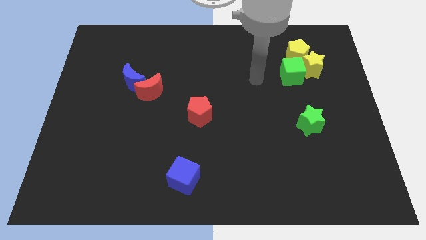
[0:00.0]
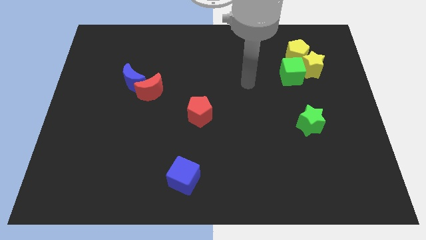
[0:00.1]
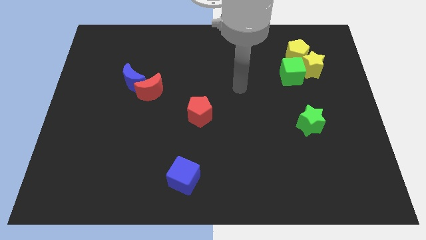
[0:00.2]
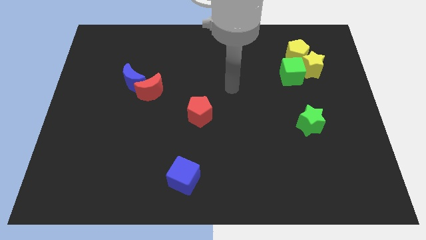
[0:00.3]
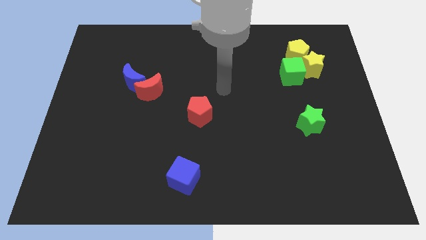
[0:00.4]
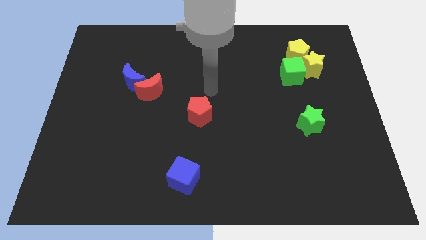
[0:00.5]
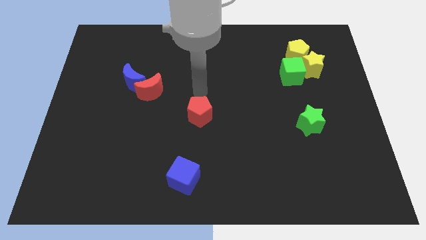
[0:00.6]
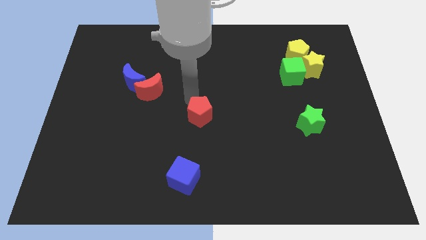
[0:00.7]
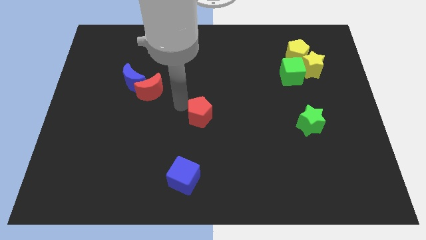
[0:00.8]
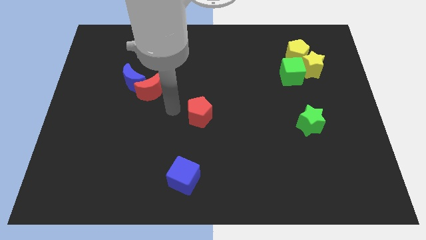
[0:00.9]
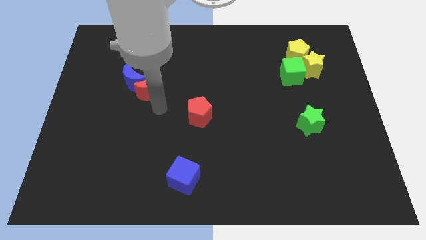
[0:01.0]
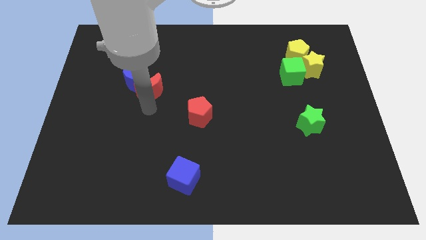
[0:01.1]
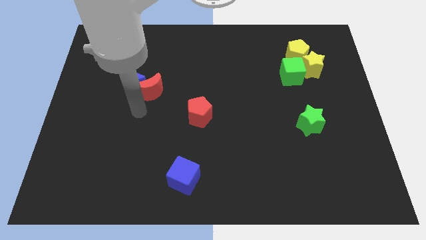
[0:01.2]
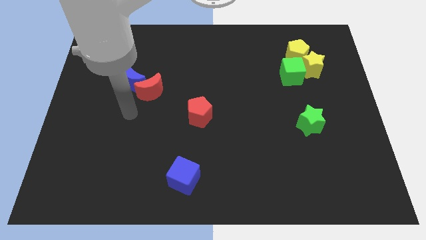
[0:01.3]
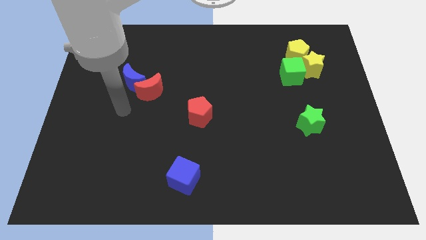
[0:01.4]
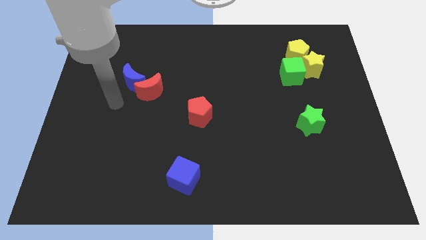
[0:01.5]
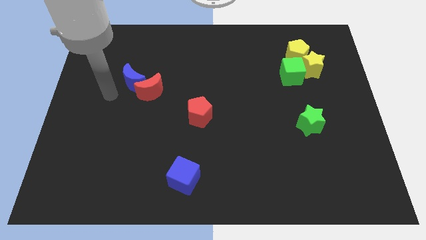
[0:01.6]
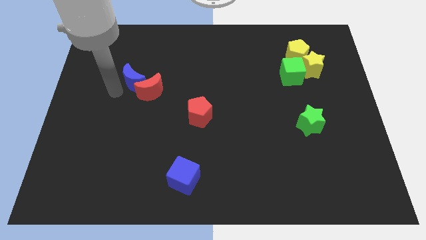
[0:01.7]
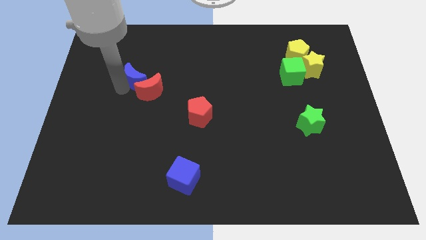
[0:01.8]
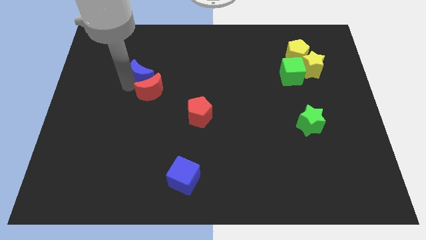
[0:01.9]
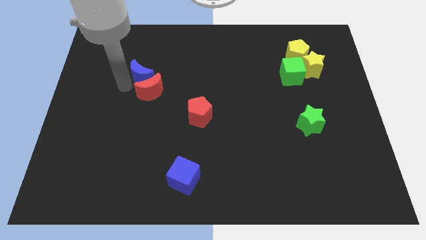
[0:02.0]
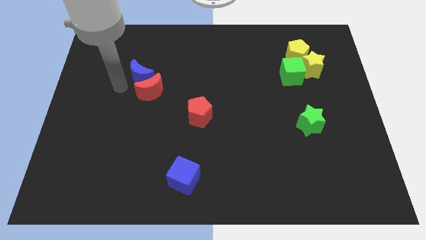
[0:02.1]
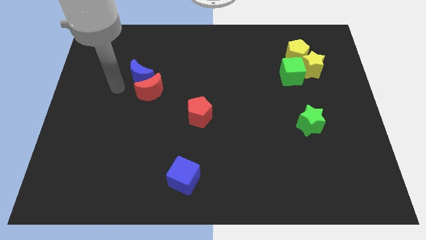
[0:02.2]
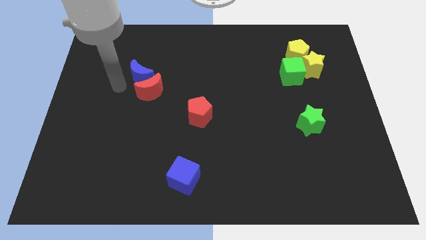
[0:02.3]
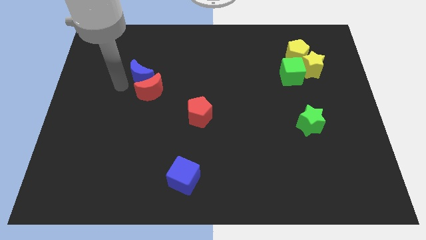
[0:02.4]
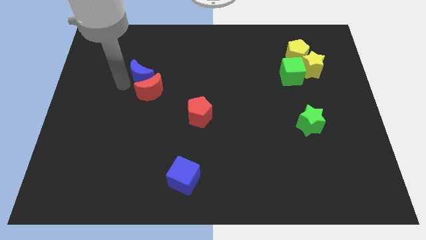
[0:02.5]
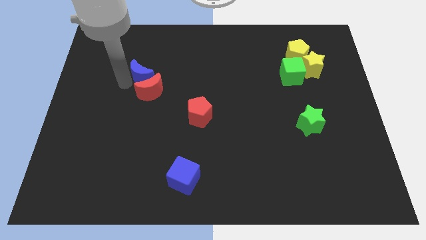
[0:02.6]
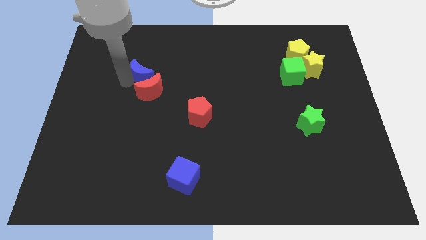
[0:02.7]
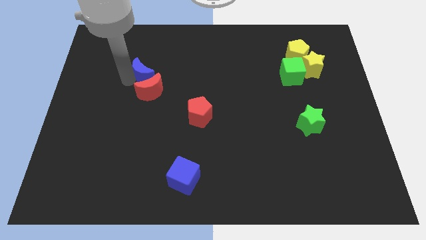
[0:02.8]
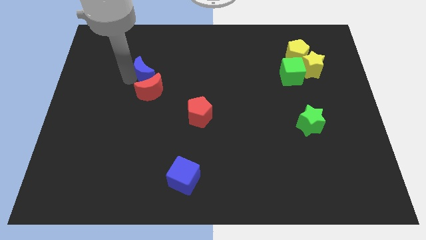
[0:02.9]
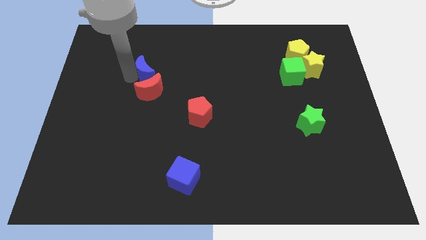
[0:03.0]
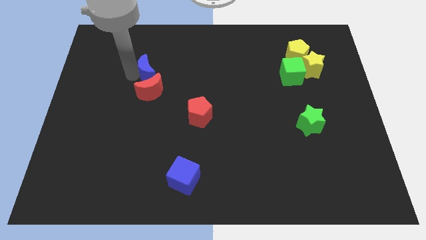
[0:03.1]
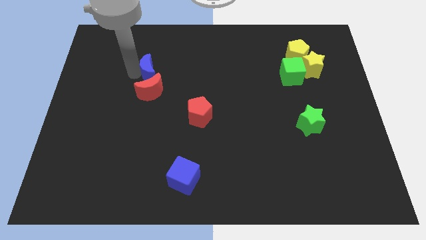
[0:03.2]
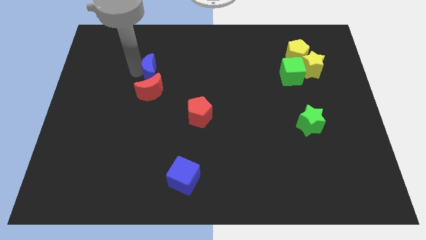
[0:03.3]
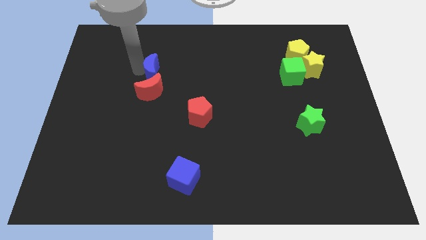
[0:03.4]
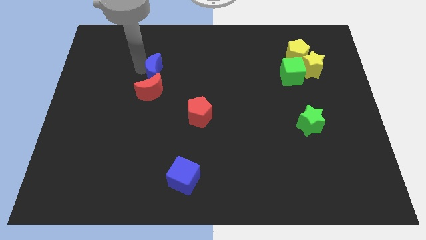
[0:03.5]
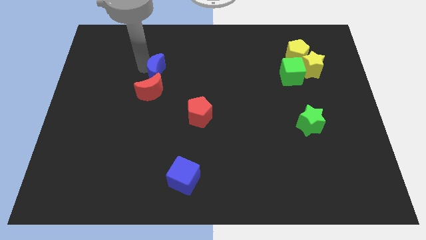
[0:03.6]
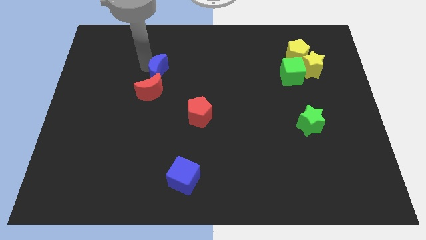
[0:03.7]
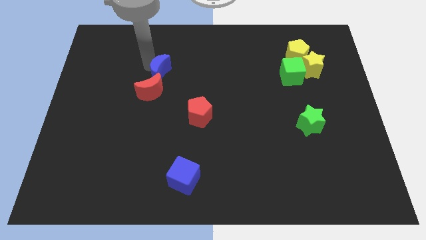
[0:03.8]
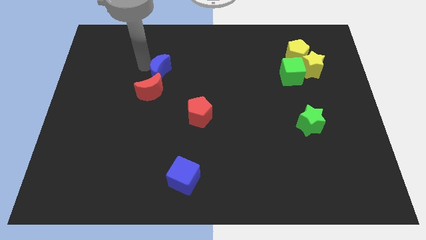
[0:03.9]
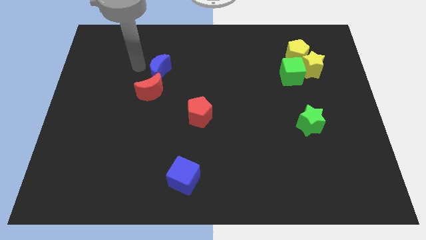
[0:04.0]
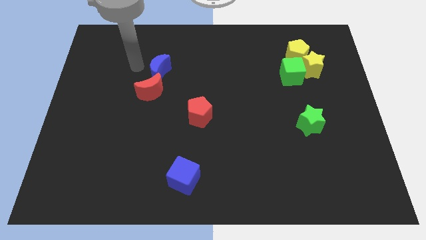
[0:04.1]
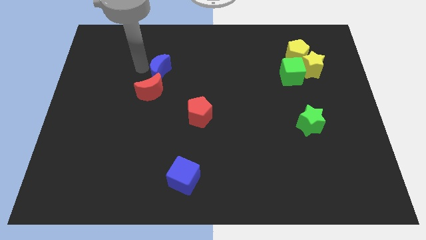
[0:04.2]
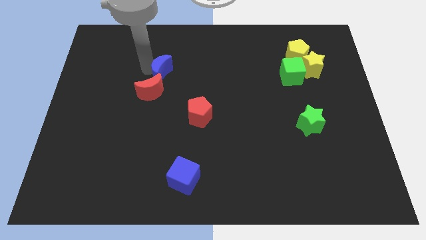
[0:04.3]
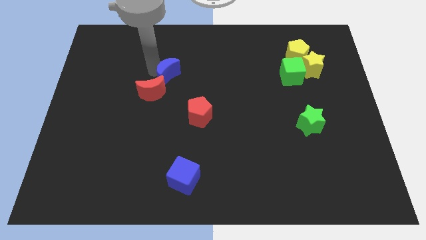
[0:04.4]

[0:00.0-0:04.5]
slightly push the blue moon to the right

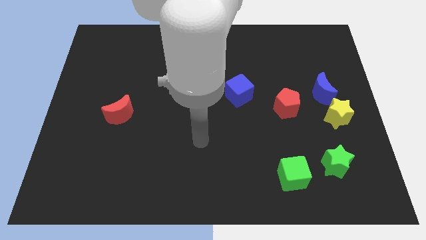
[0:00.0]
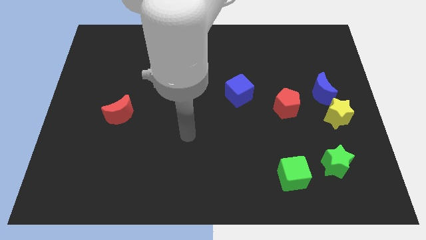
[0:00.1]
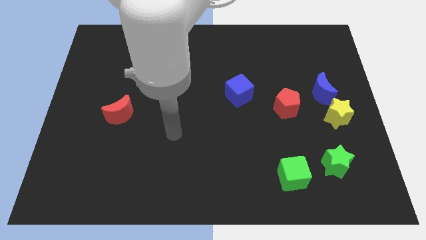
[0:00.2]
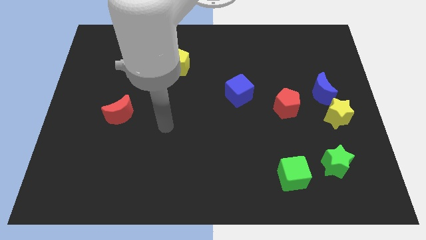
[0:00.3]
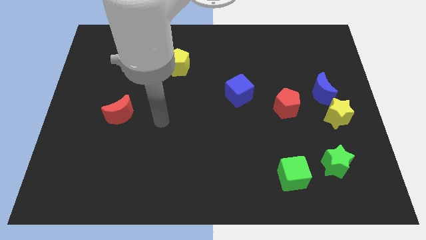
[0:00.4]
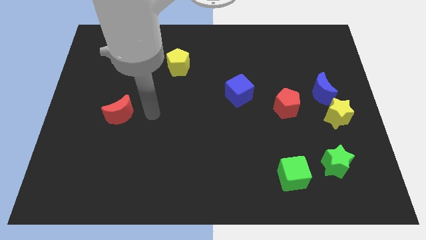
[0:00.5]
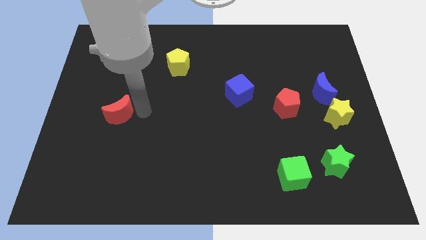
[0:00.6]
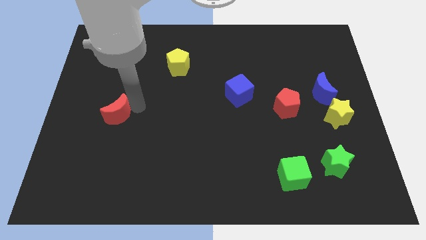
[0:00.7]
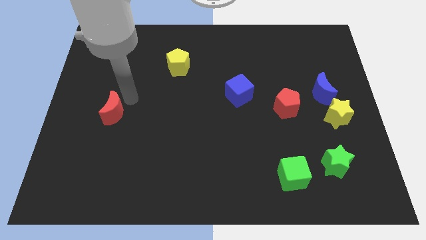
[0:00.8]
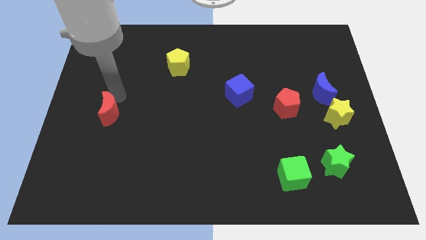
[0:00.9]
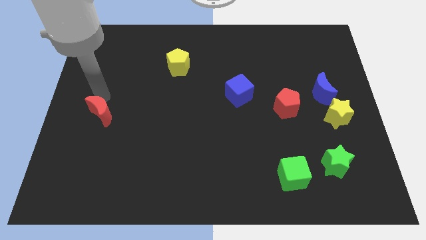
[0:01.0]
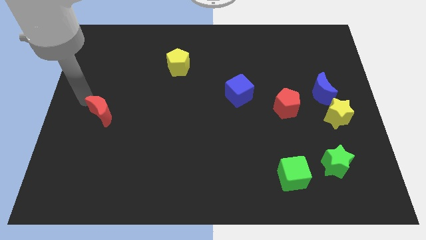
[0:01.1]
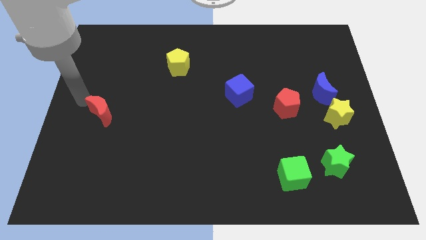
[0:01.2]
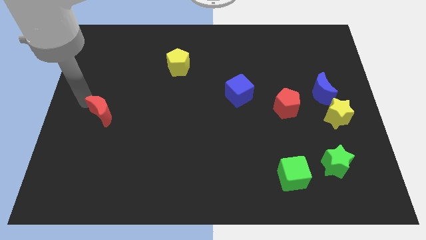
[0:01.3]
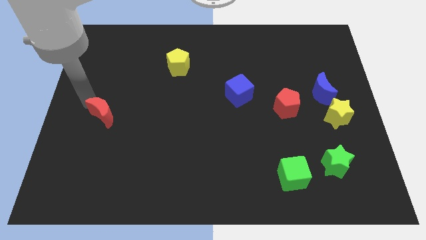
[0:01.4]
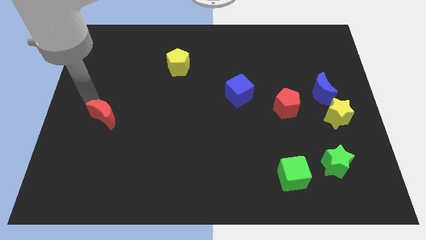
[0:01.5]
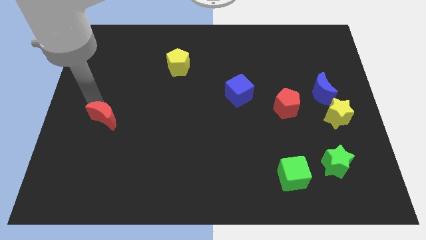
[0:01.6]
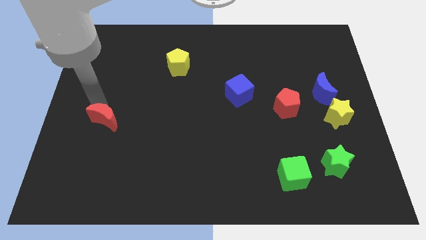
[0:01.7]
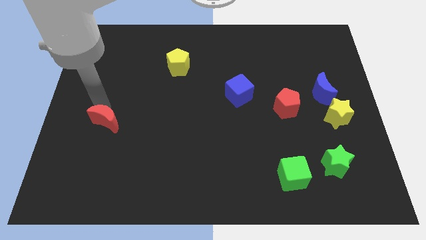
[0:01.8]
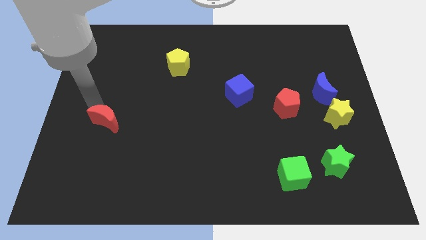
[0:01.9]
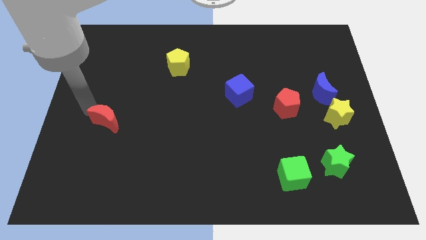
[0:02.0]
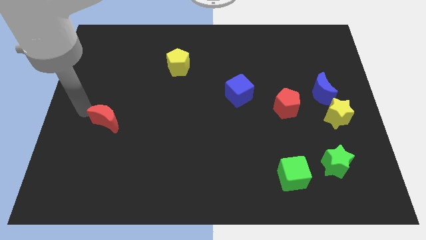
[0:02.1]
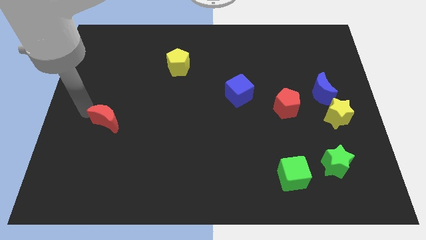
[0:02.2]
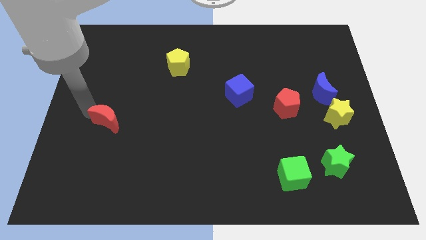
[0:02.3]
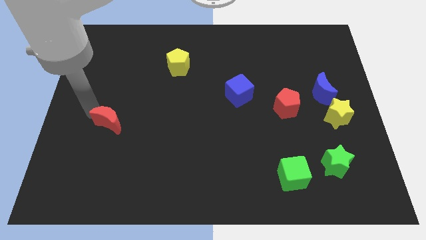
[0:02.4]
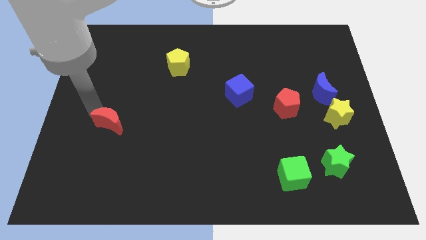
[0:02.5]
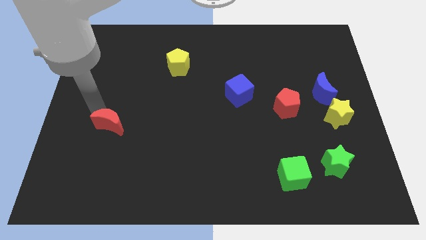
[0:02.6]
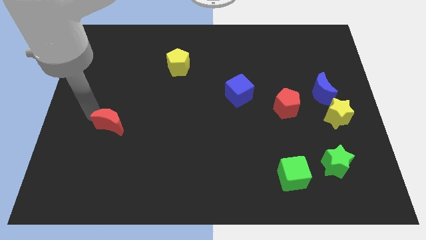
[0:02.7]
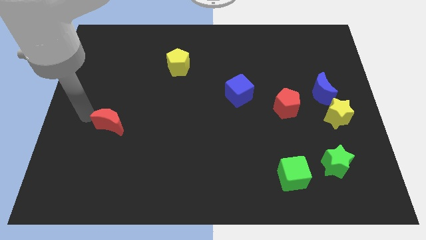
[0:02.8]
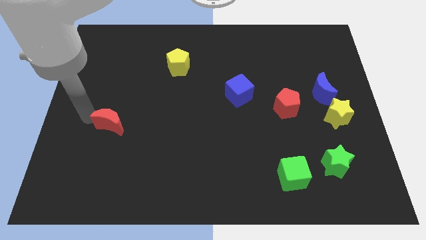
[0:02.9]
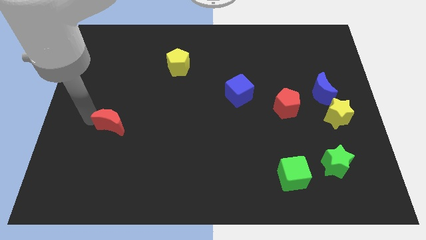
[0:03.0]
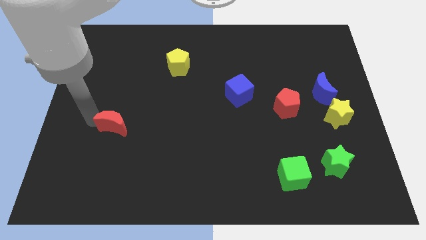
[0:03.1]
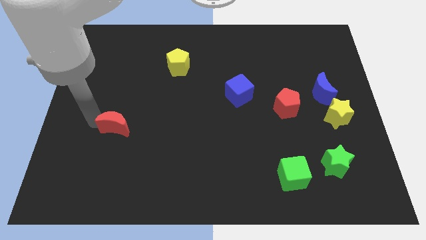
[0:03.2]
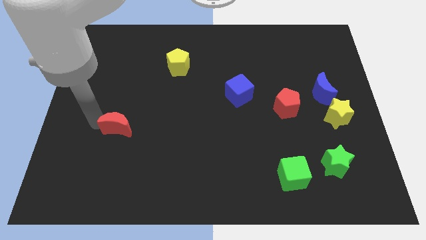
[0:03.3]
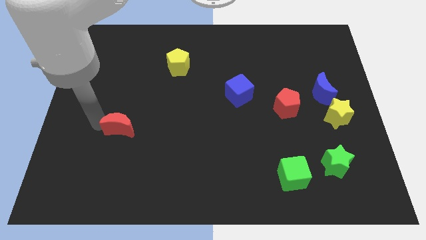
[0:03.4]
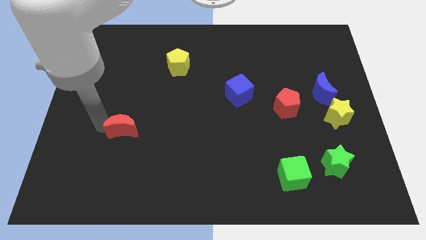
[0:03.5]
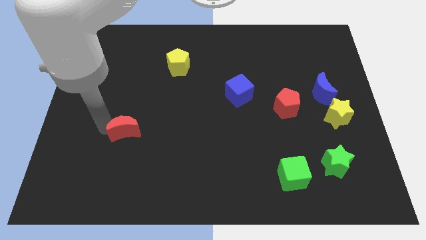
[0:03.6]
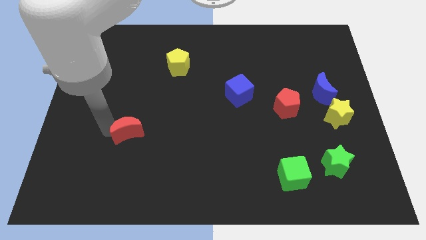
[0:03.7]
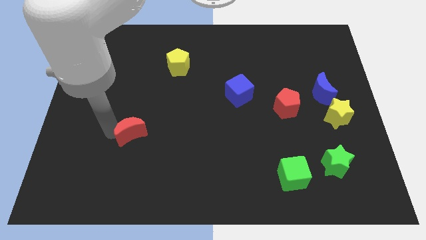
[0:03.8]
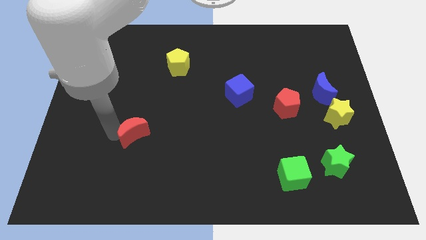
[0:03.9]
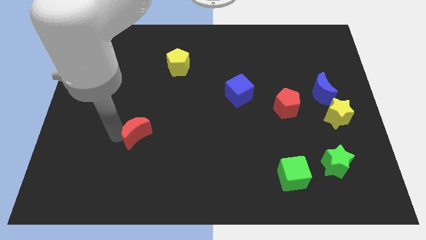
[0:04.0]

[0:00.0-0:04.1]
slightly slide the red moon down and to the right
